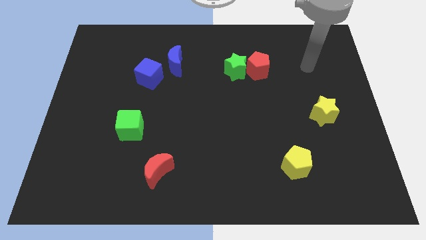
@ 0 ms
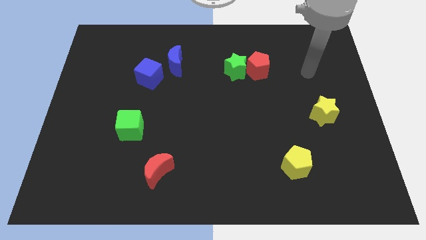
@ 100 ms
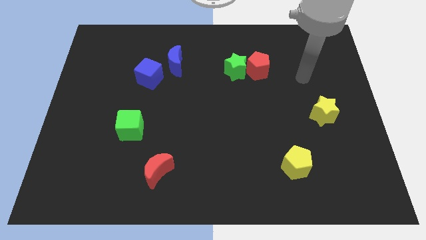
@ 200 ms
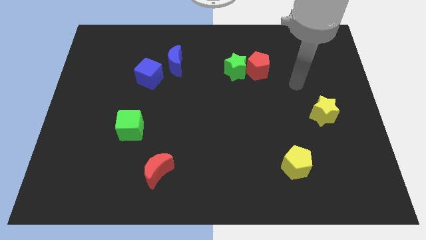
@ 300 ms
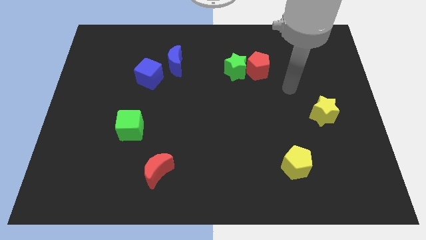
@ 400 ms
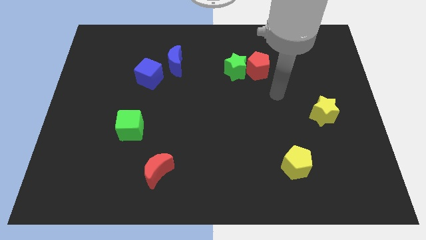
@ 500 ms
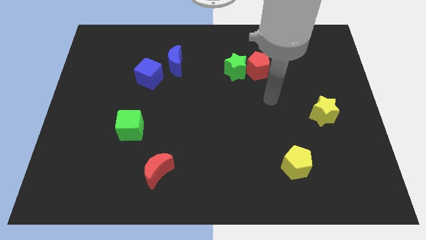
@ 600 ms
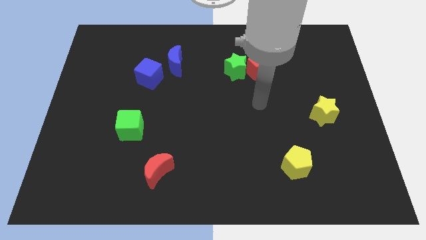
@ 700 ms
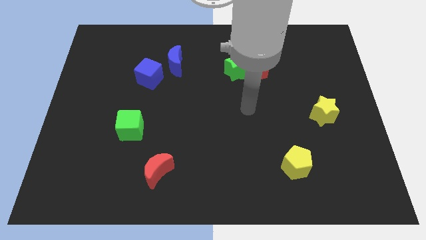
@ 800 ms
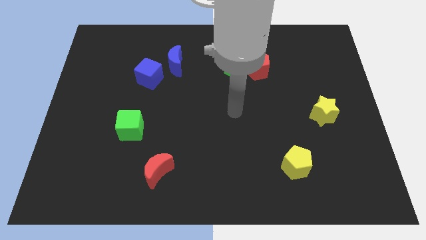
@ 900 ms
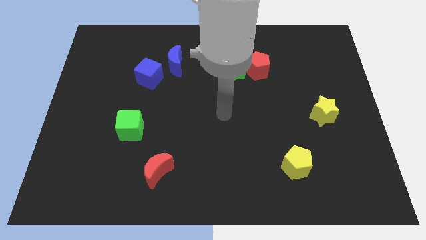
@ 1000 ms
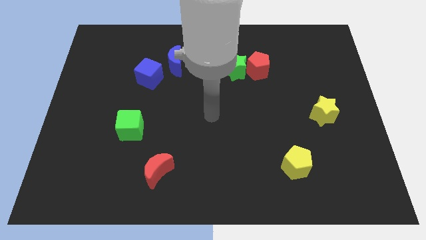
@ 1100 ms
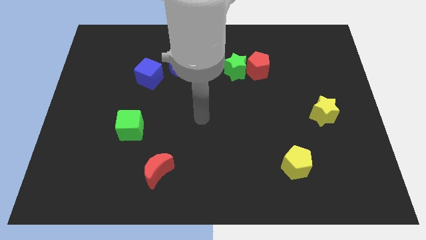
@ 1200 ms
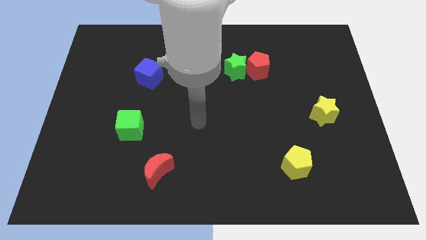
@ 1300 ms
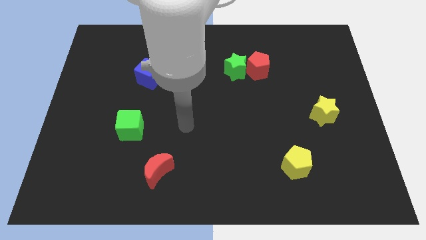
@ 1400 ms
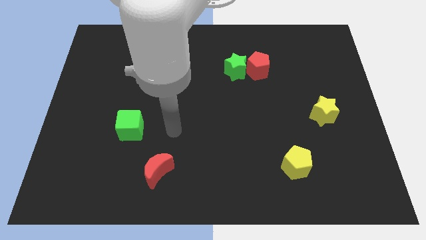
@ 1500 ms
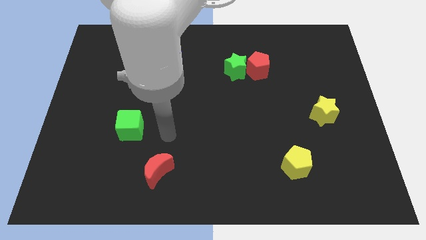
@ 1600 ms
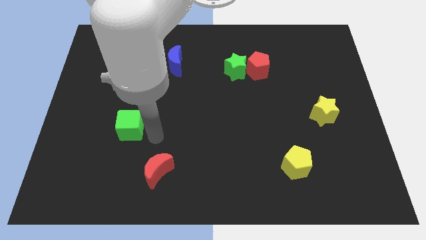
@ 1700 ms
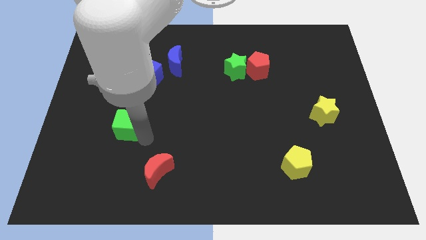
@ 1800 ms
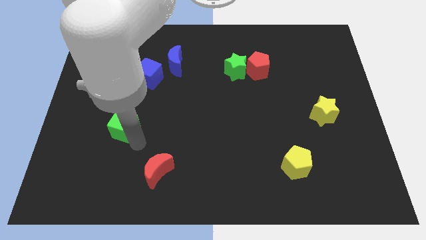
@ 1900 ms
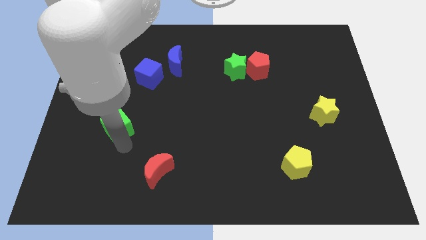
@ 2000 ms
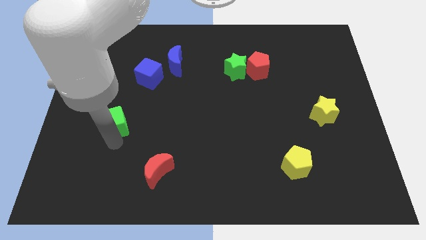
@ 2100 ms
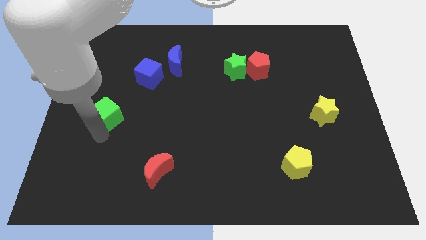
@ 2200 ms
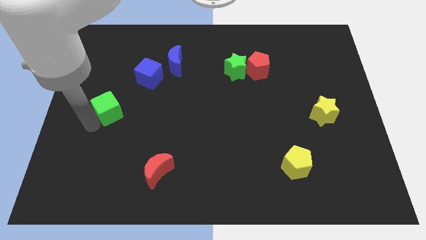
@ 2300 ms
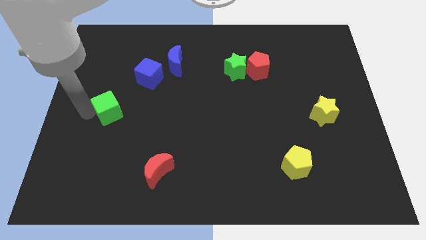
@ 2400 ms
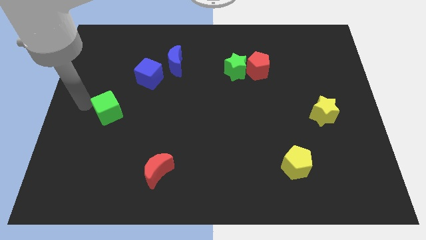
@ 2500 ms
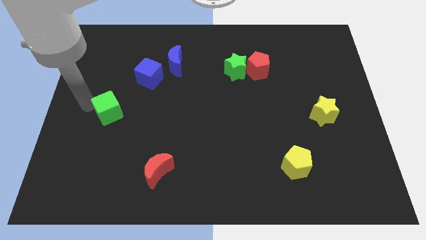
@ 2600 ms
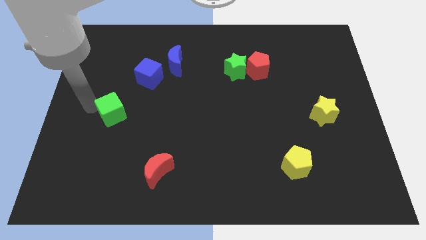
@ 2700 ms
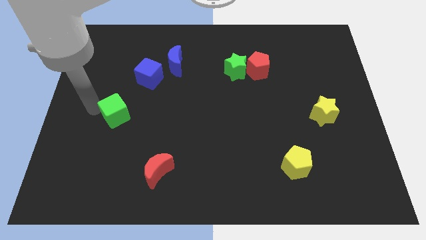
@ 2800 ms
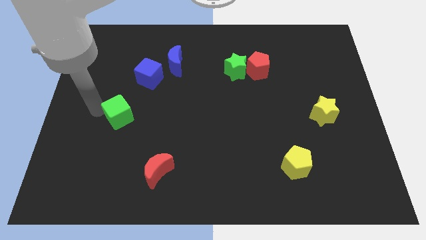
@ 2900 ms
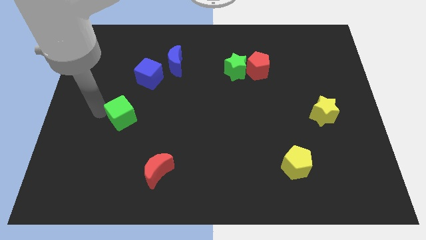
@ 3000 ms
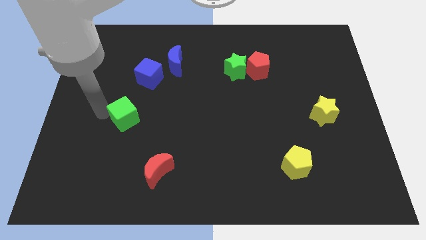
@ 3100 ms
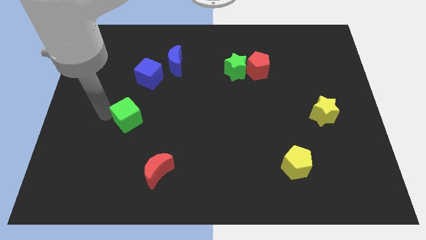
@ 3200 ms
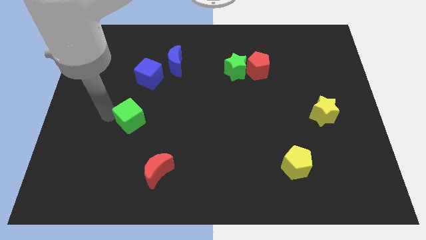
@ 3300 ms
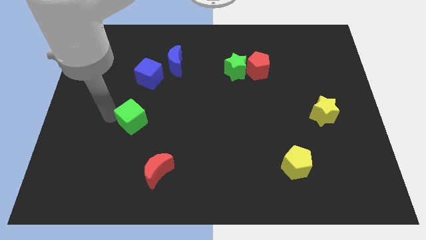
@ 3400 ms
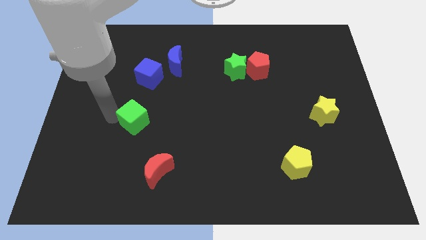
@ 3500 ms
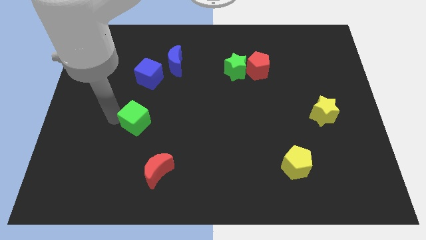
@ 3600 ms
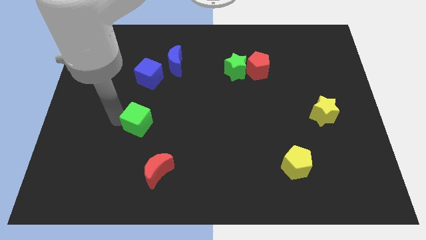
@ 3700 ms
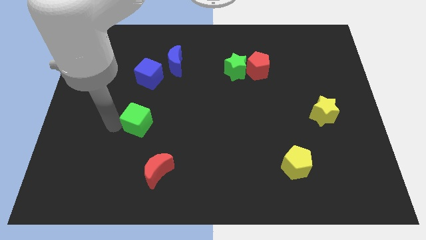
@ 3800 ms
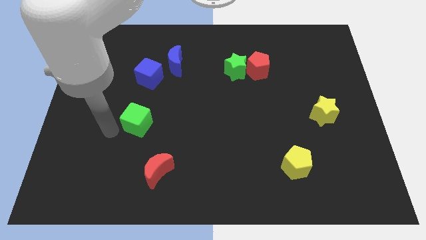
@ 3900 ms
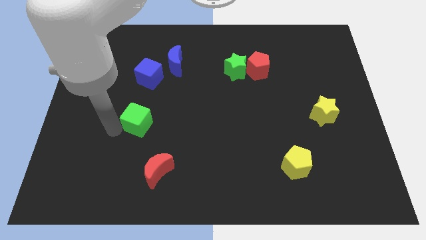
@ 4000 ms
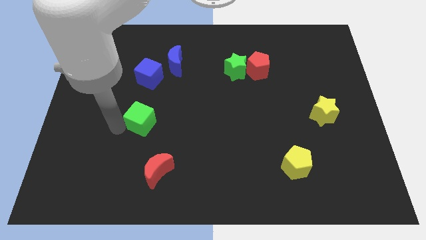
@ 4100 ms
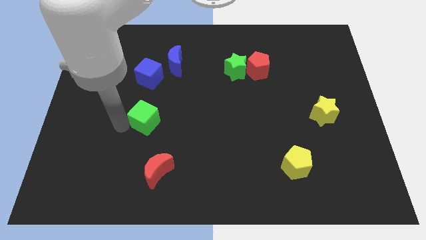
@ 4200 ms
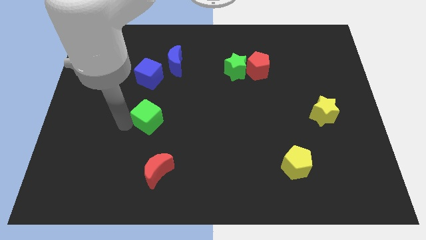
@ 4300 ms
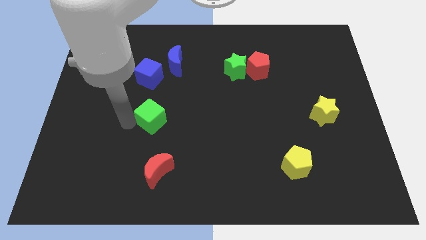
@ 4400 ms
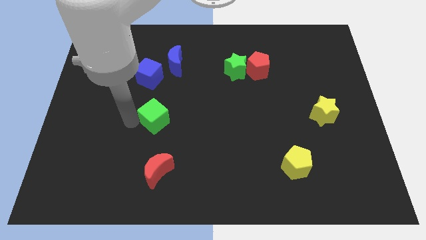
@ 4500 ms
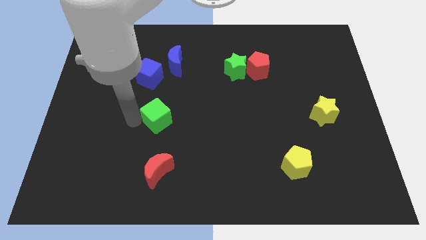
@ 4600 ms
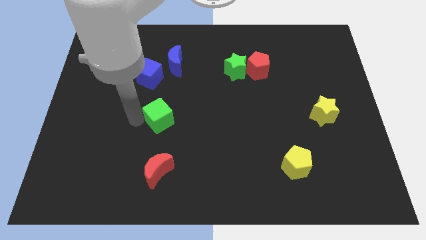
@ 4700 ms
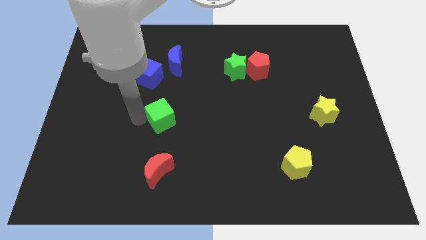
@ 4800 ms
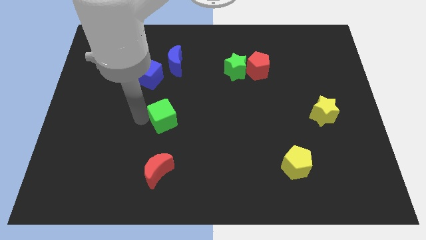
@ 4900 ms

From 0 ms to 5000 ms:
put the green cube to the middle of the board

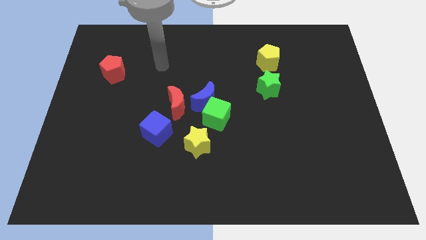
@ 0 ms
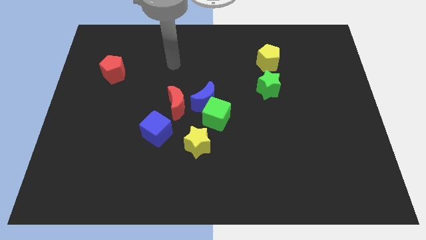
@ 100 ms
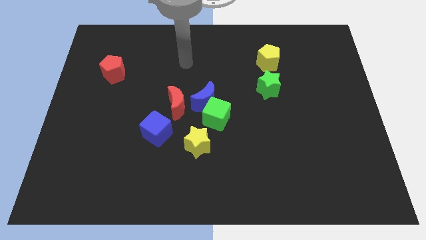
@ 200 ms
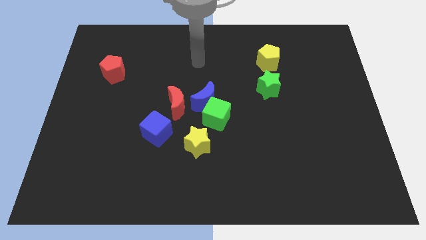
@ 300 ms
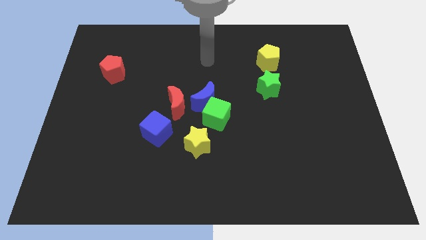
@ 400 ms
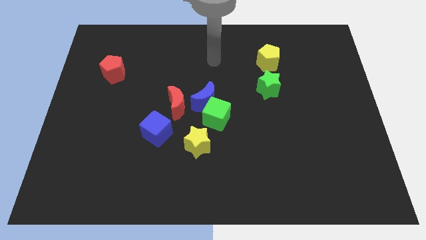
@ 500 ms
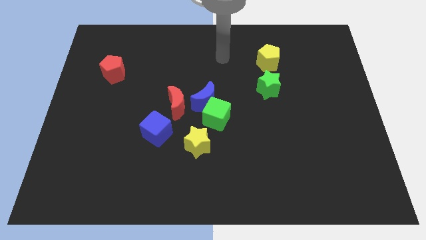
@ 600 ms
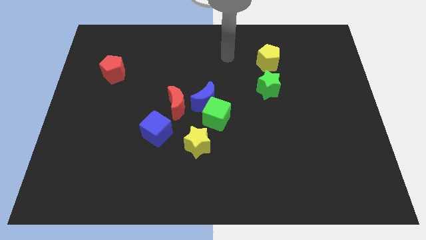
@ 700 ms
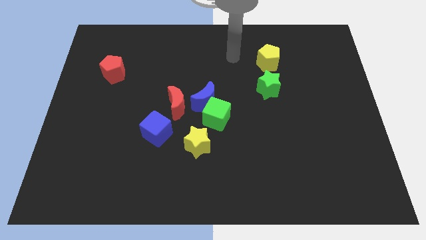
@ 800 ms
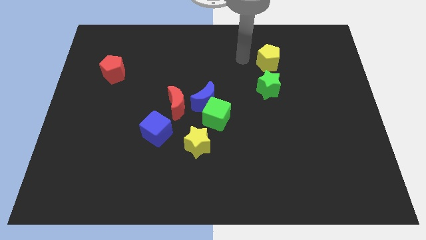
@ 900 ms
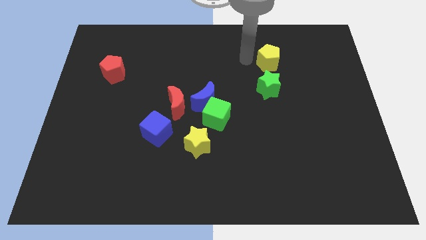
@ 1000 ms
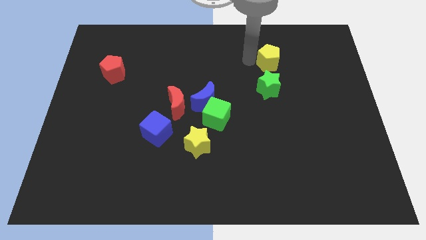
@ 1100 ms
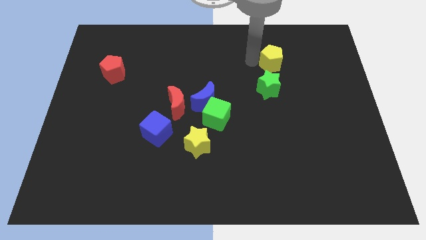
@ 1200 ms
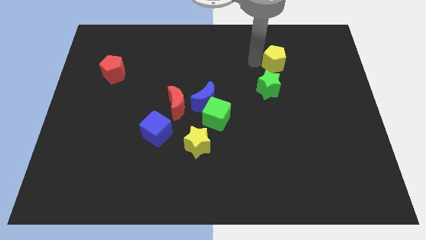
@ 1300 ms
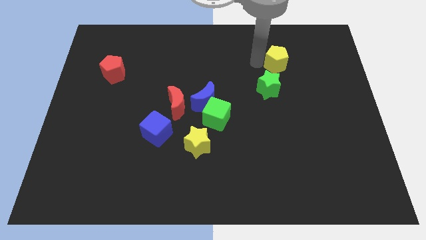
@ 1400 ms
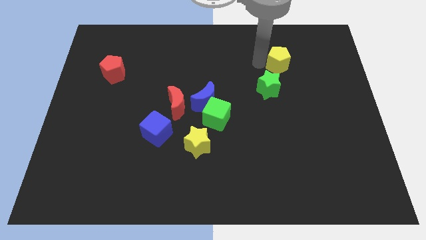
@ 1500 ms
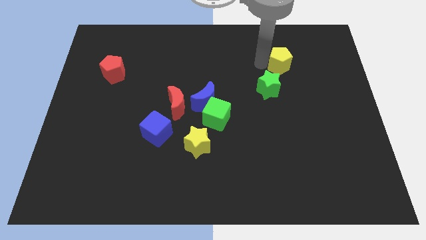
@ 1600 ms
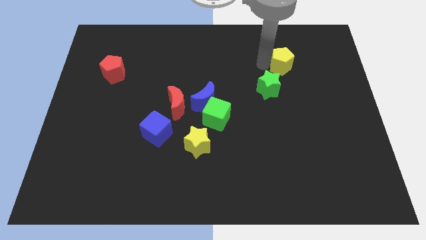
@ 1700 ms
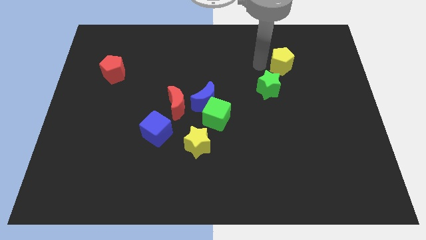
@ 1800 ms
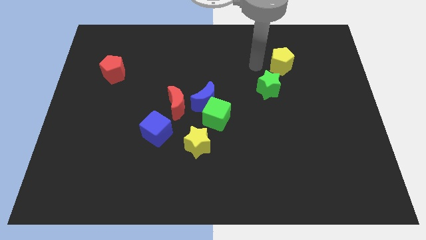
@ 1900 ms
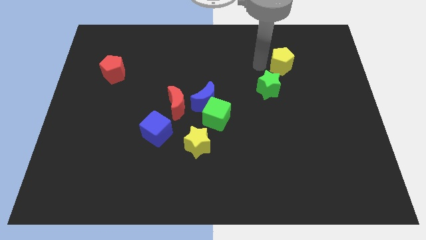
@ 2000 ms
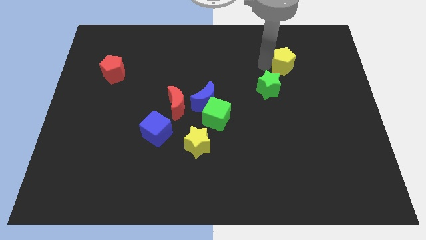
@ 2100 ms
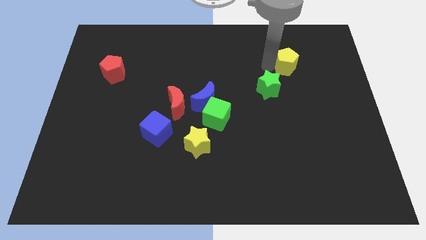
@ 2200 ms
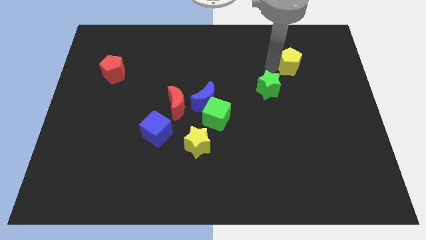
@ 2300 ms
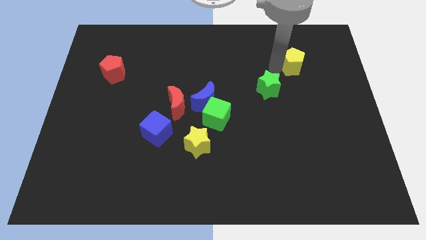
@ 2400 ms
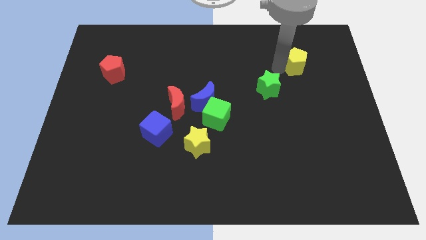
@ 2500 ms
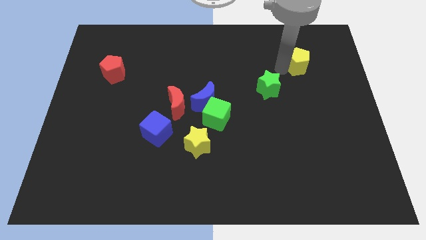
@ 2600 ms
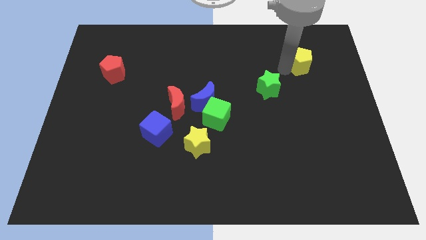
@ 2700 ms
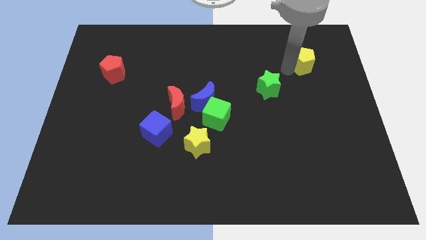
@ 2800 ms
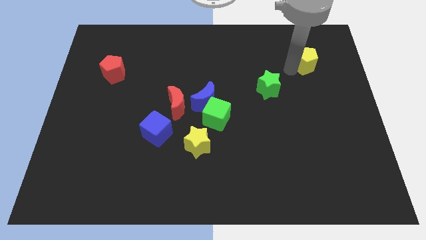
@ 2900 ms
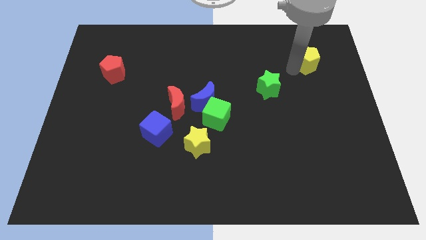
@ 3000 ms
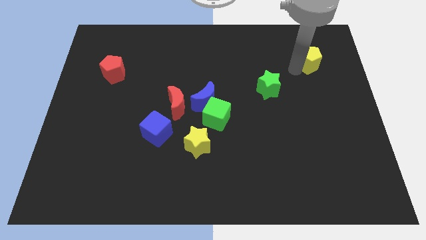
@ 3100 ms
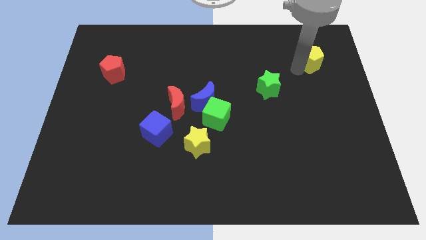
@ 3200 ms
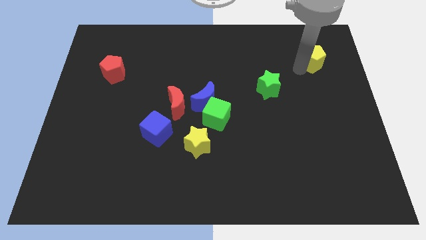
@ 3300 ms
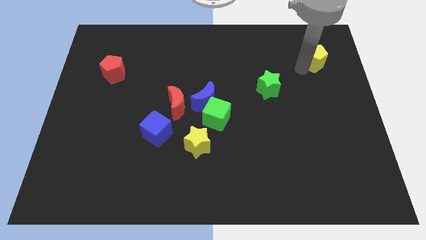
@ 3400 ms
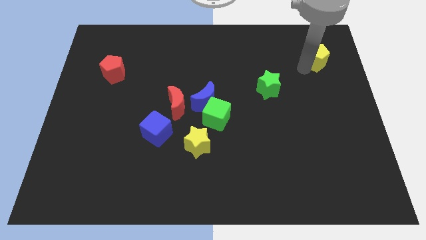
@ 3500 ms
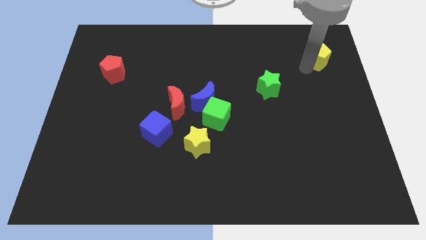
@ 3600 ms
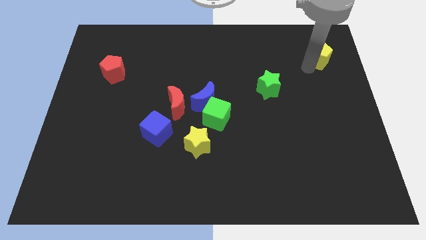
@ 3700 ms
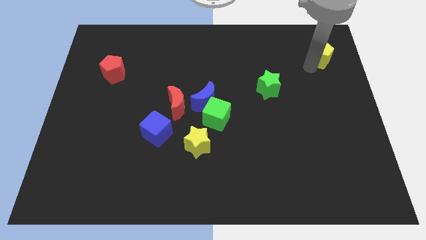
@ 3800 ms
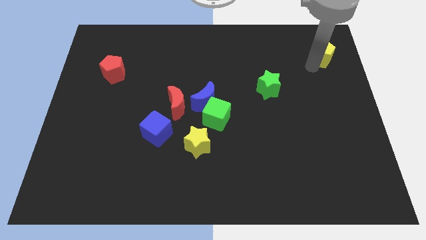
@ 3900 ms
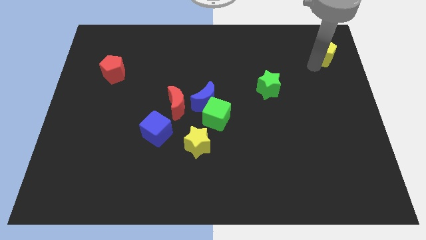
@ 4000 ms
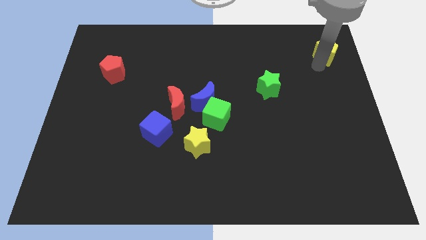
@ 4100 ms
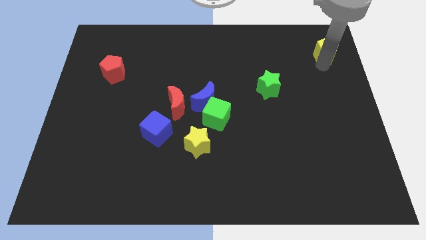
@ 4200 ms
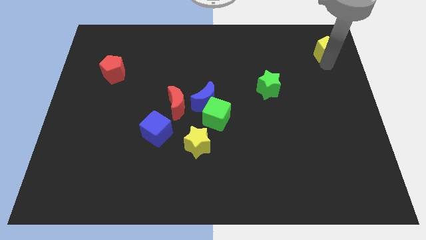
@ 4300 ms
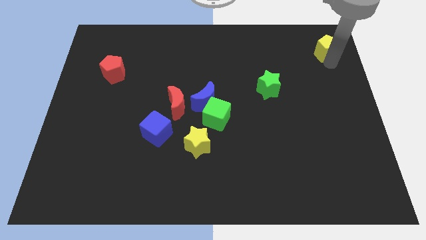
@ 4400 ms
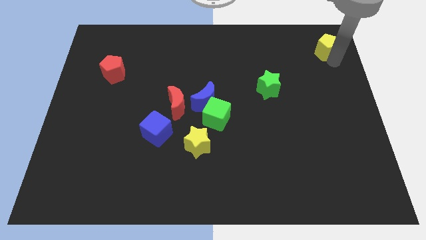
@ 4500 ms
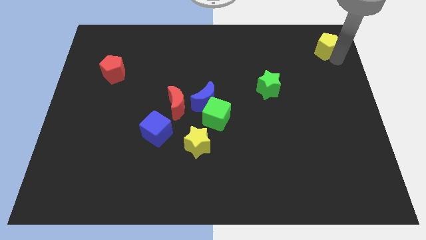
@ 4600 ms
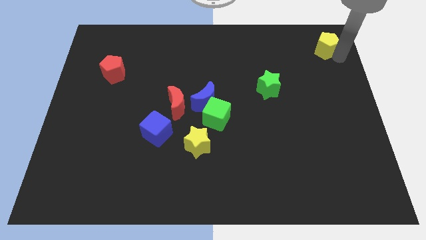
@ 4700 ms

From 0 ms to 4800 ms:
move the yellow pentagon to the top right
